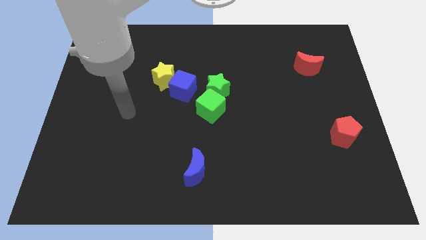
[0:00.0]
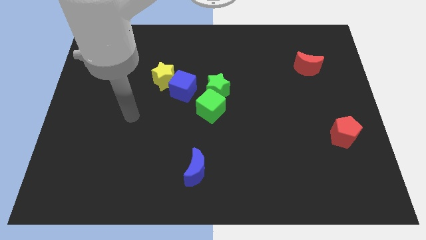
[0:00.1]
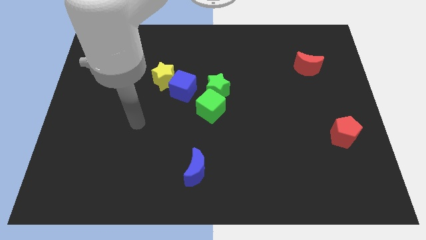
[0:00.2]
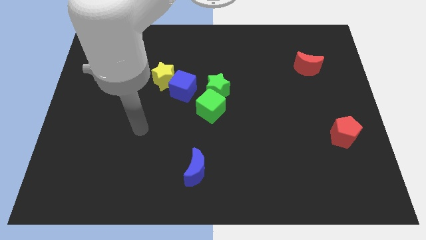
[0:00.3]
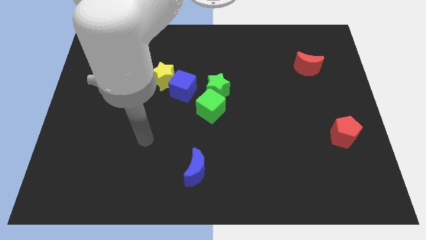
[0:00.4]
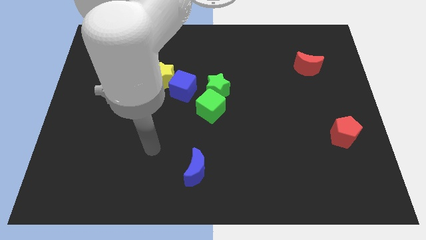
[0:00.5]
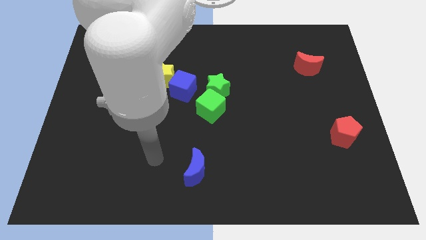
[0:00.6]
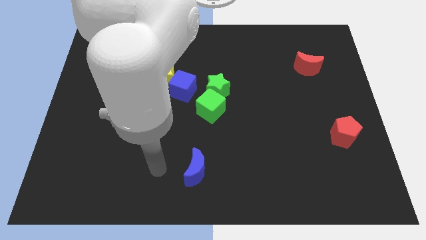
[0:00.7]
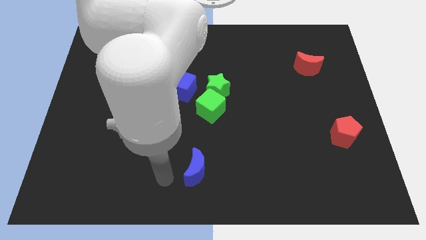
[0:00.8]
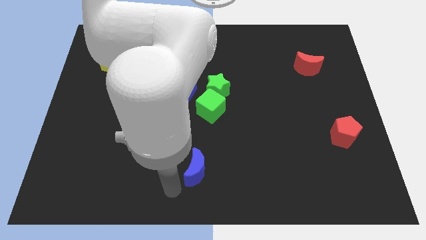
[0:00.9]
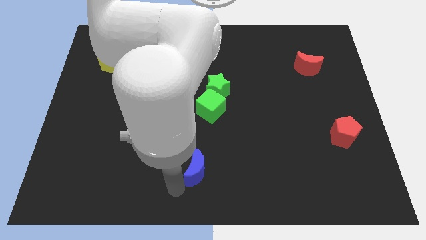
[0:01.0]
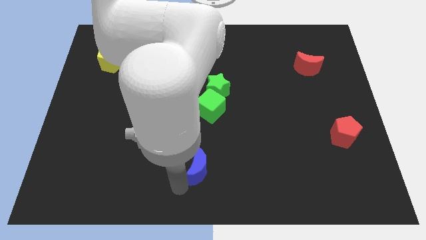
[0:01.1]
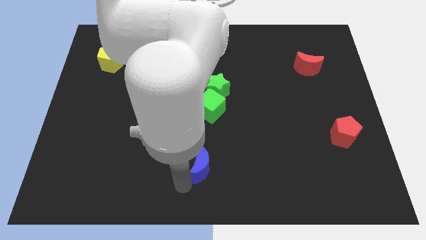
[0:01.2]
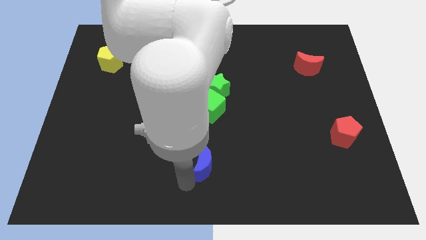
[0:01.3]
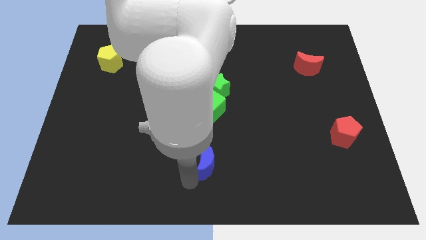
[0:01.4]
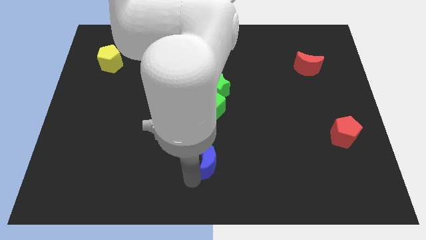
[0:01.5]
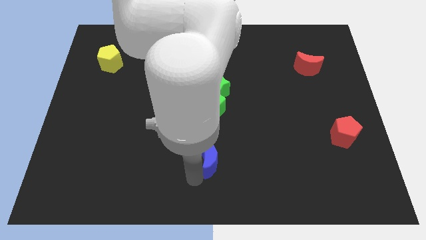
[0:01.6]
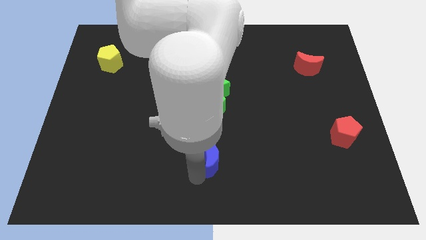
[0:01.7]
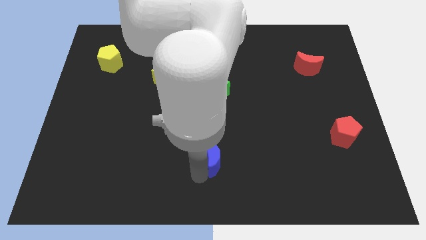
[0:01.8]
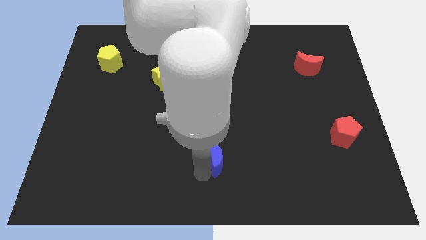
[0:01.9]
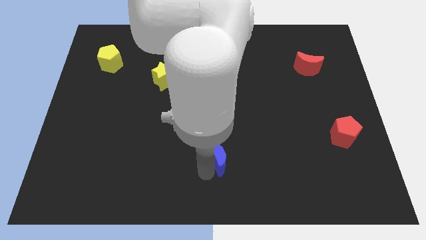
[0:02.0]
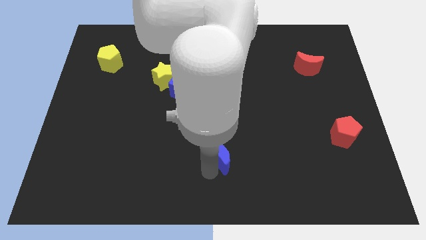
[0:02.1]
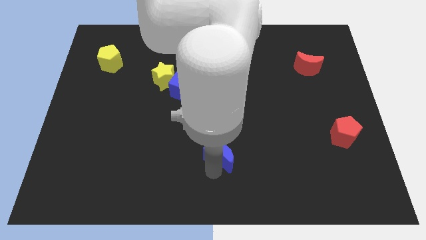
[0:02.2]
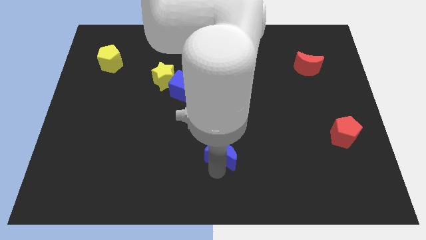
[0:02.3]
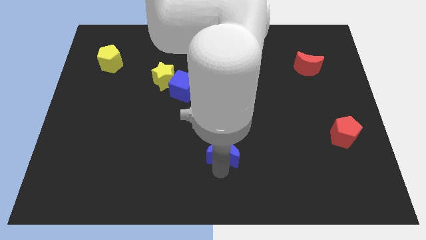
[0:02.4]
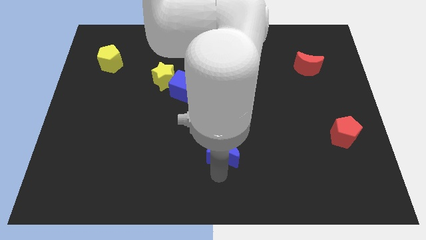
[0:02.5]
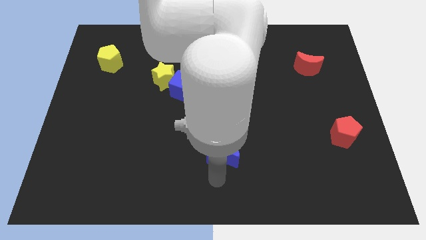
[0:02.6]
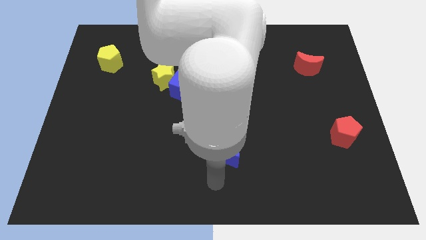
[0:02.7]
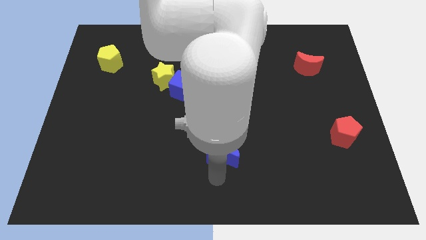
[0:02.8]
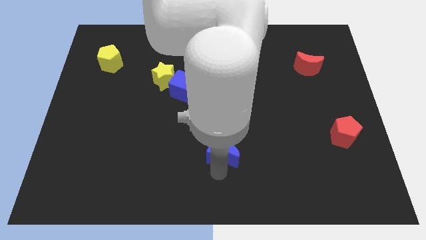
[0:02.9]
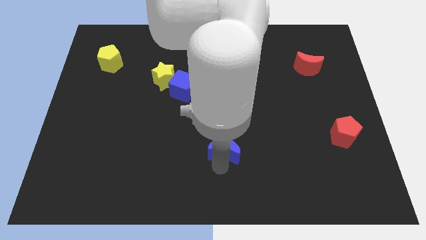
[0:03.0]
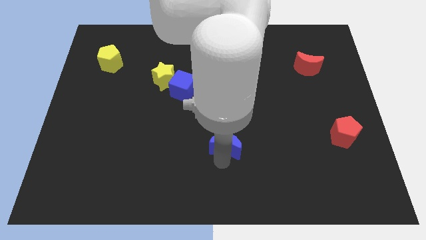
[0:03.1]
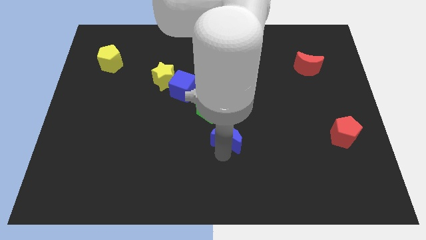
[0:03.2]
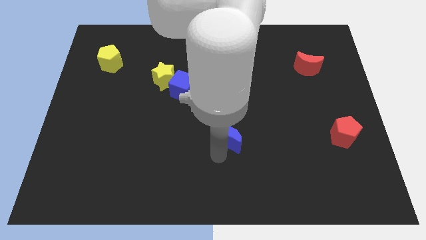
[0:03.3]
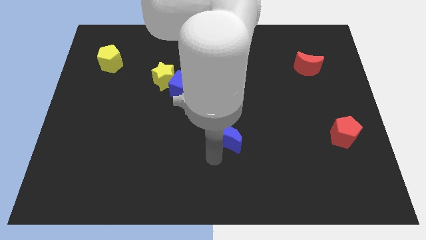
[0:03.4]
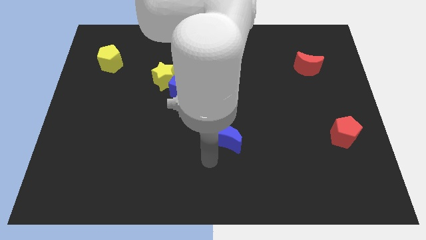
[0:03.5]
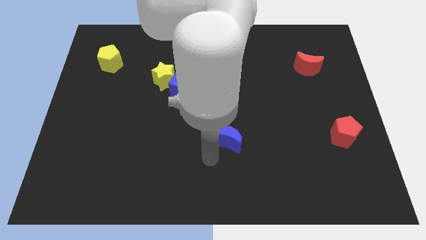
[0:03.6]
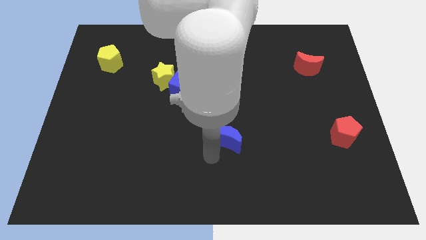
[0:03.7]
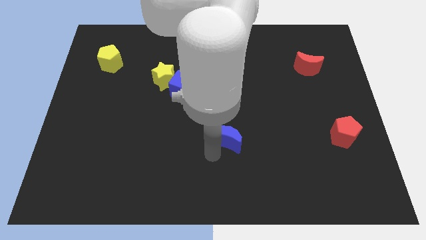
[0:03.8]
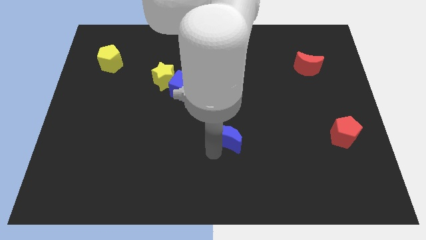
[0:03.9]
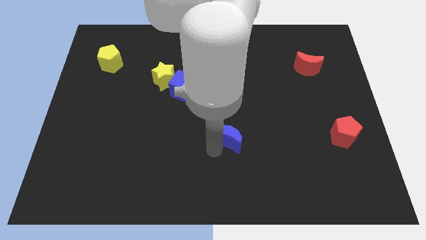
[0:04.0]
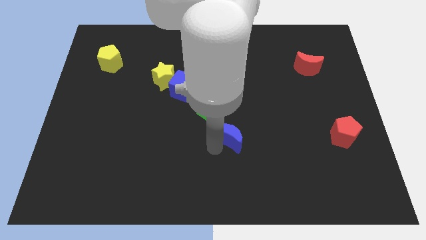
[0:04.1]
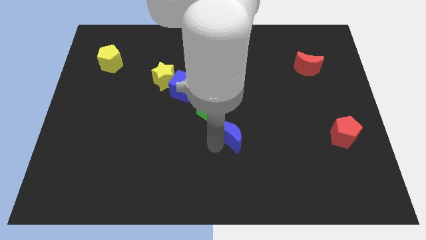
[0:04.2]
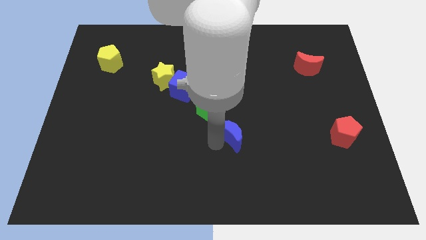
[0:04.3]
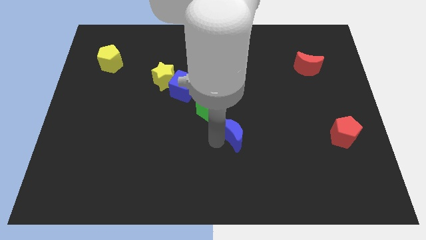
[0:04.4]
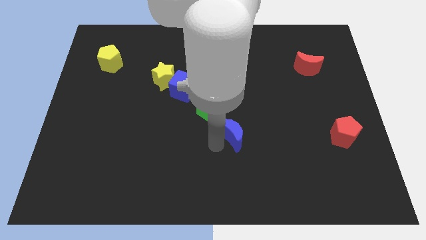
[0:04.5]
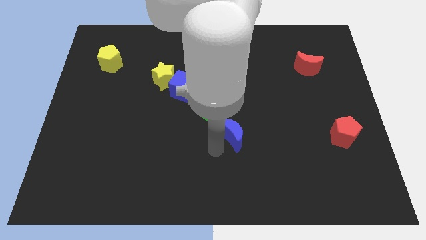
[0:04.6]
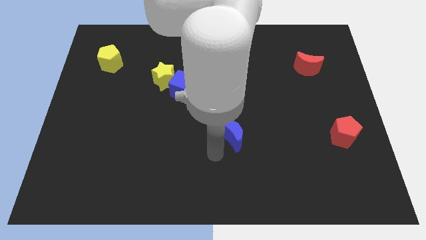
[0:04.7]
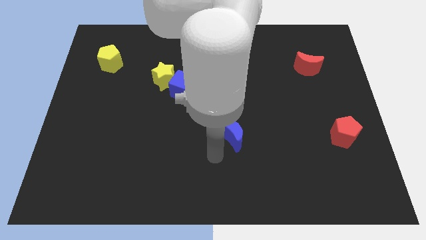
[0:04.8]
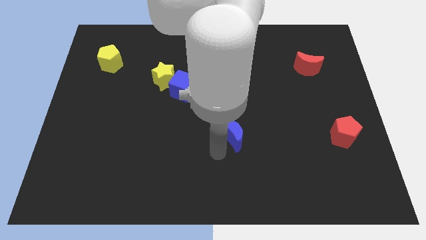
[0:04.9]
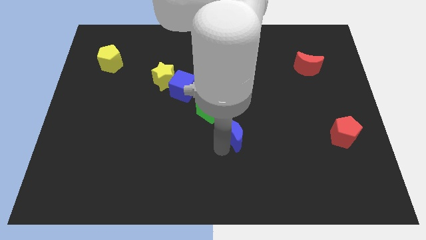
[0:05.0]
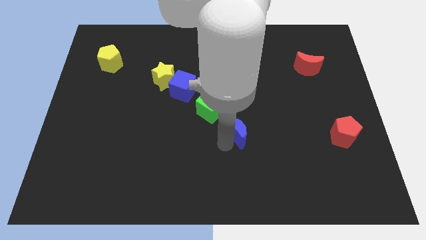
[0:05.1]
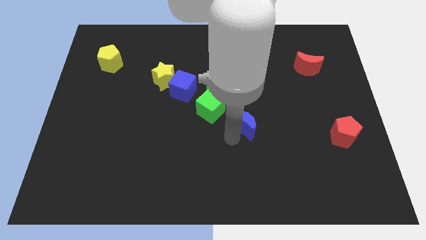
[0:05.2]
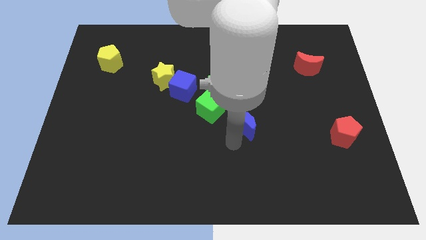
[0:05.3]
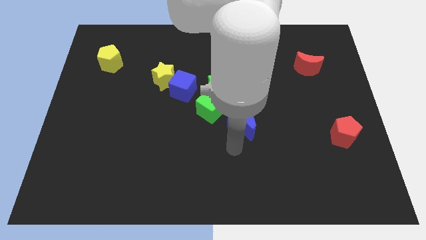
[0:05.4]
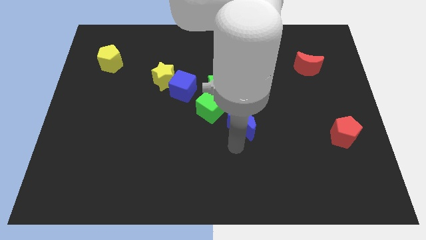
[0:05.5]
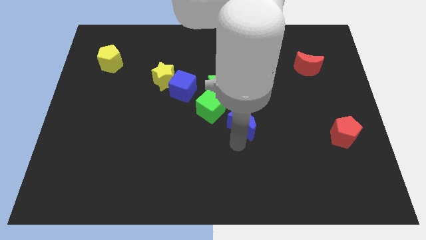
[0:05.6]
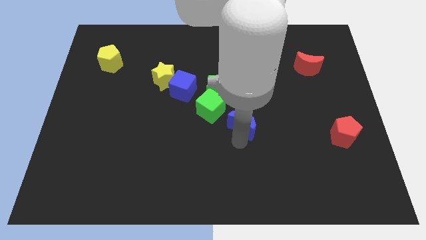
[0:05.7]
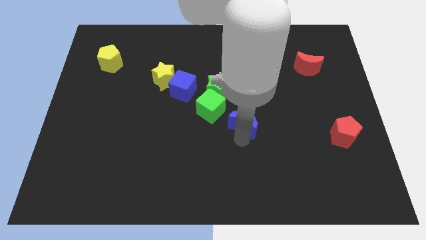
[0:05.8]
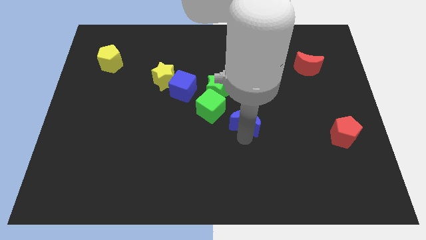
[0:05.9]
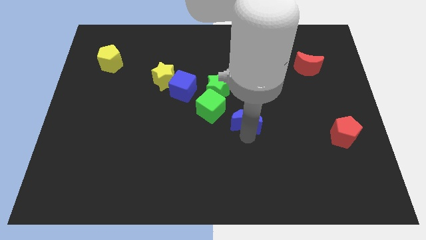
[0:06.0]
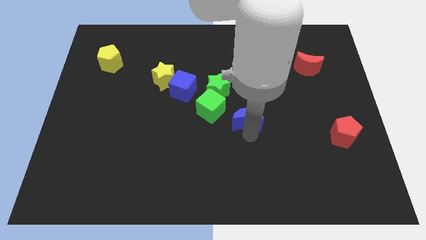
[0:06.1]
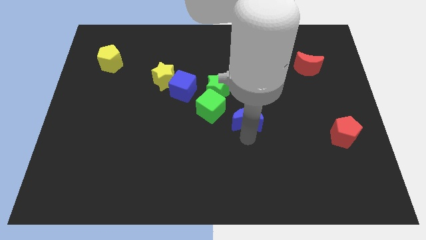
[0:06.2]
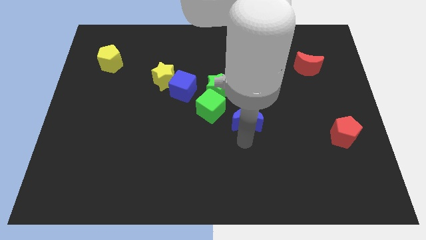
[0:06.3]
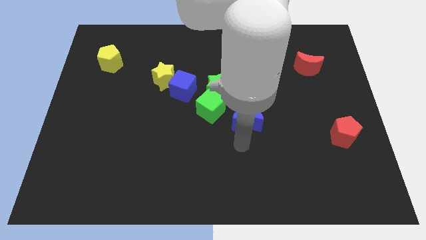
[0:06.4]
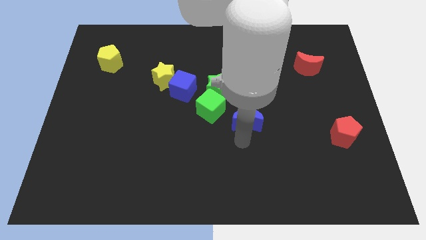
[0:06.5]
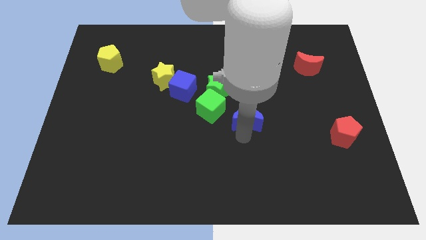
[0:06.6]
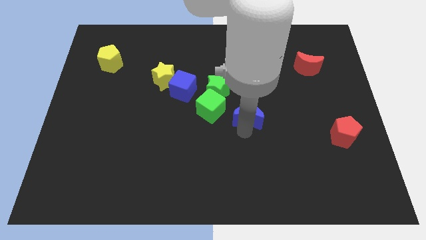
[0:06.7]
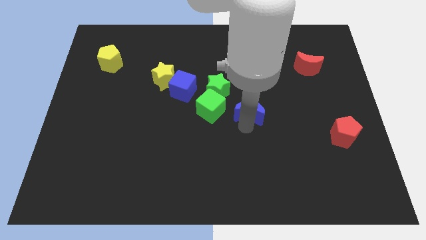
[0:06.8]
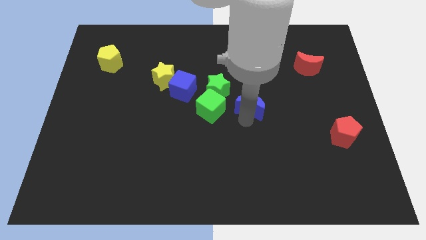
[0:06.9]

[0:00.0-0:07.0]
move the blue moon upwards and then right

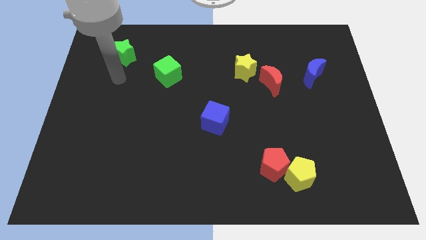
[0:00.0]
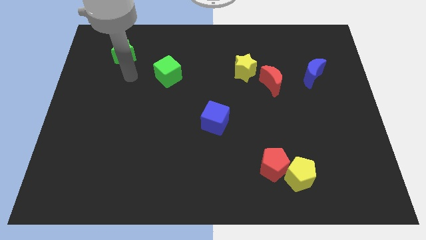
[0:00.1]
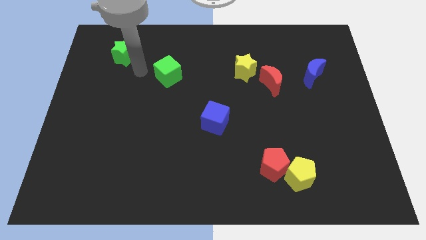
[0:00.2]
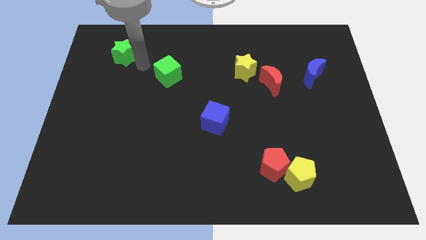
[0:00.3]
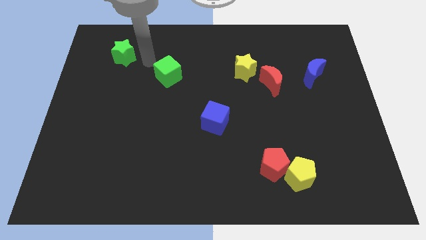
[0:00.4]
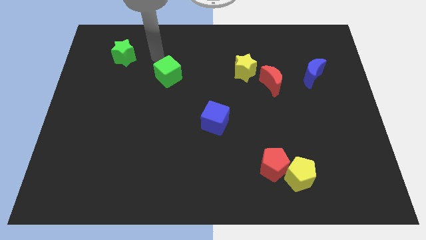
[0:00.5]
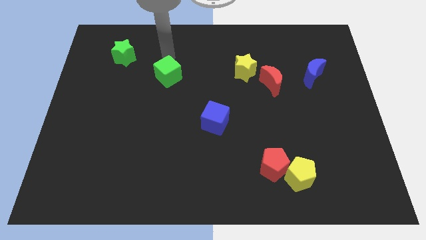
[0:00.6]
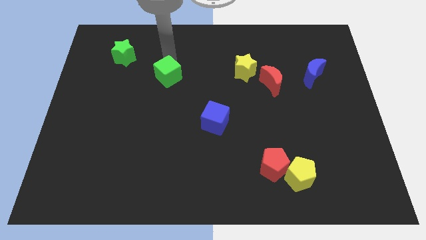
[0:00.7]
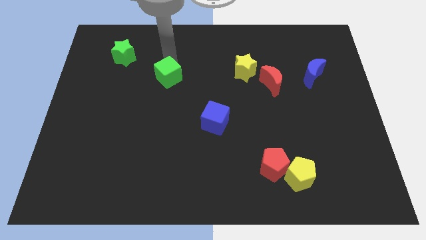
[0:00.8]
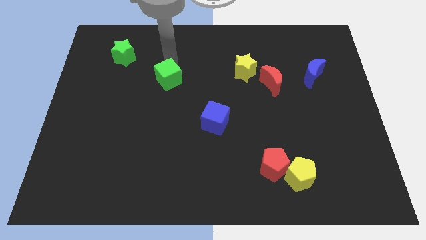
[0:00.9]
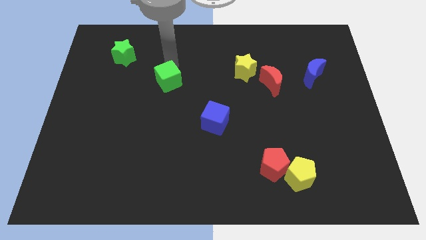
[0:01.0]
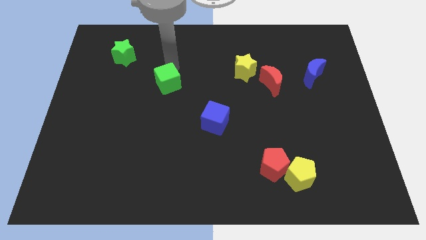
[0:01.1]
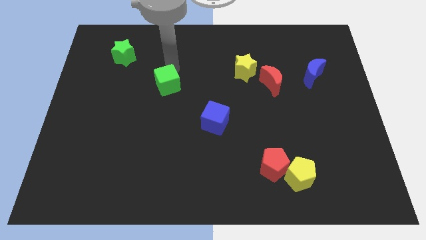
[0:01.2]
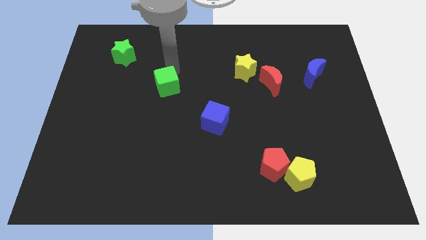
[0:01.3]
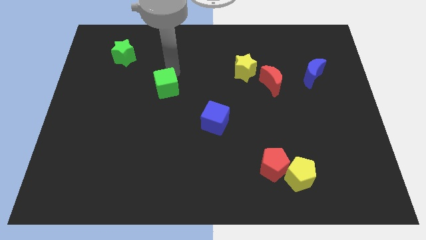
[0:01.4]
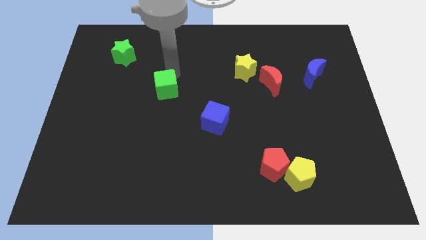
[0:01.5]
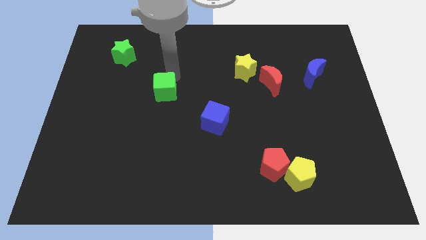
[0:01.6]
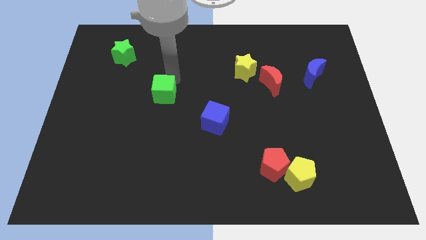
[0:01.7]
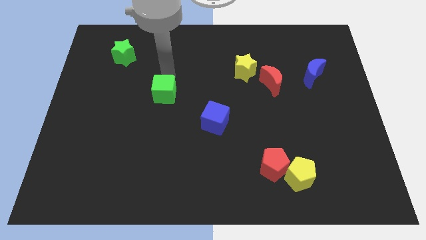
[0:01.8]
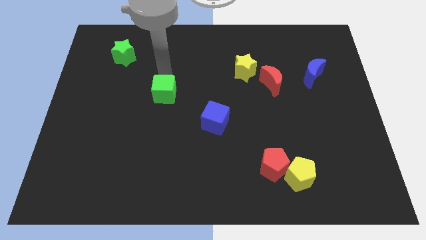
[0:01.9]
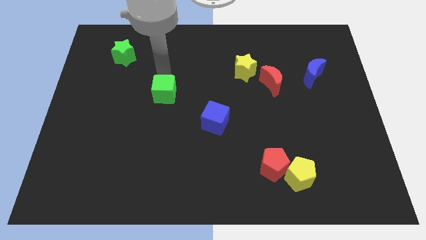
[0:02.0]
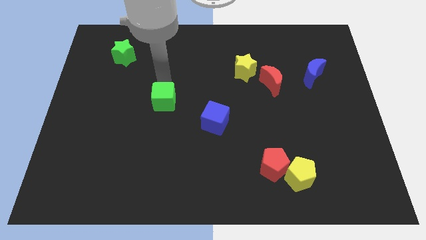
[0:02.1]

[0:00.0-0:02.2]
slide the green cube down a bit
